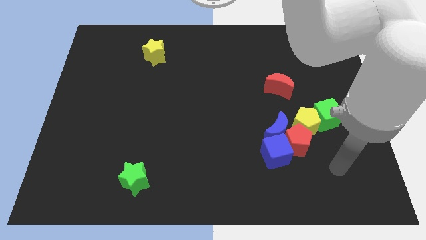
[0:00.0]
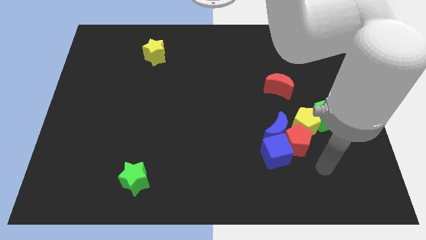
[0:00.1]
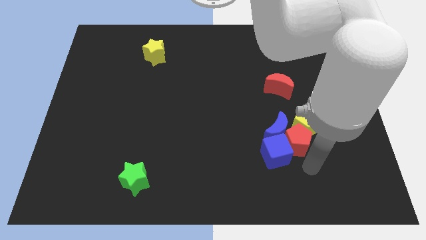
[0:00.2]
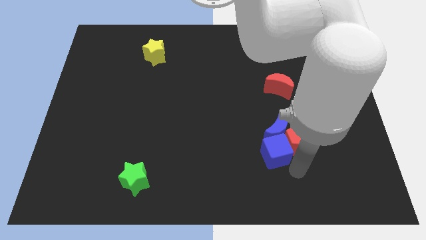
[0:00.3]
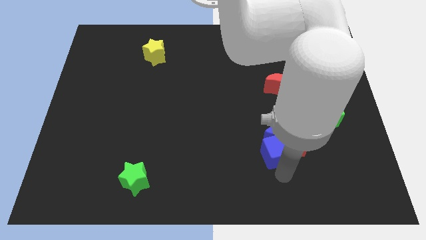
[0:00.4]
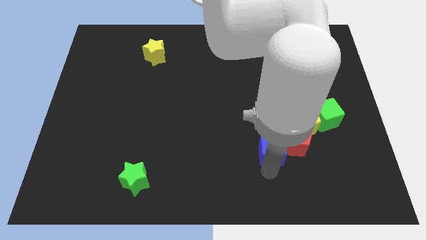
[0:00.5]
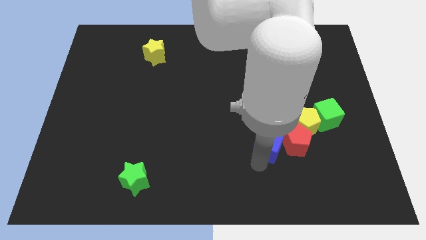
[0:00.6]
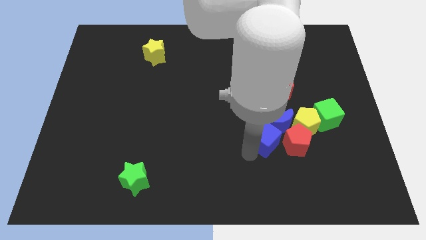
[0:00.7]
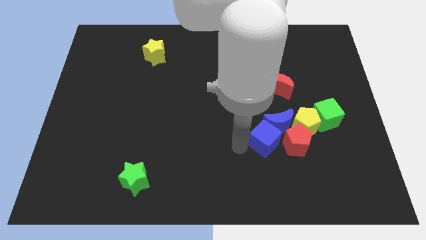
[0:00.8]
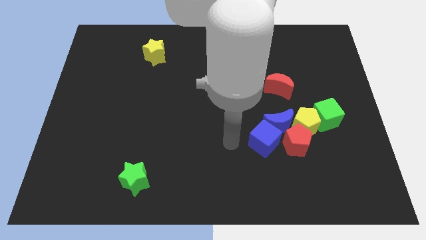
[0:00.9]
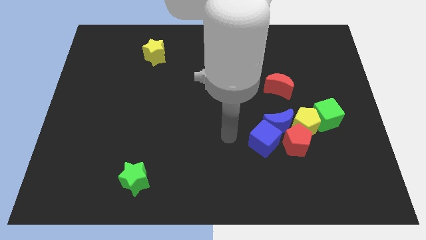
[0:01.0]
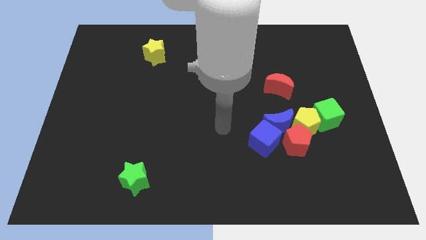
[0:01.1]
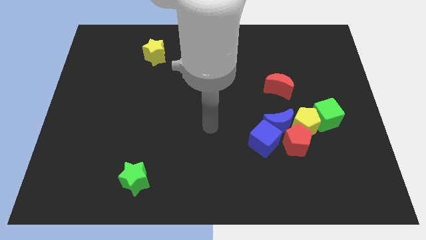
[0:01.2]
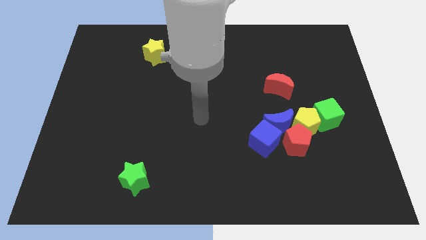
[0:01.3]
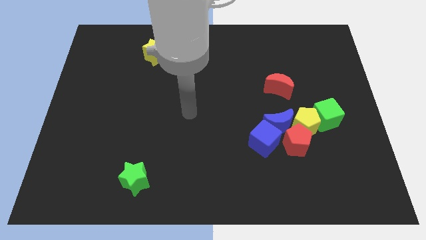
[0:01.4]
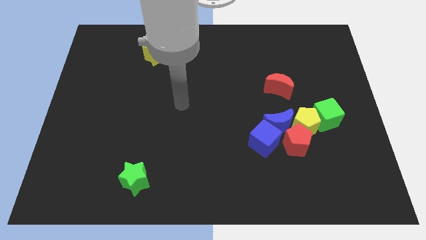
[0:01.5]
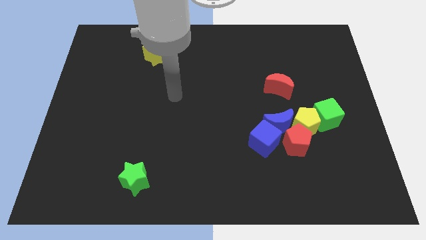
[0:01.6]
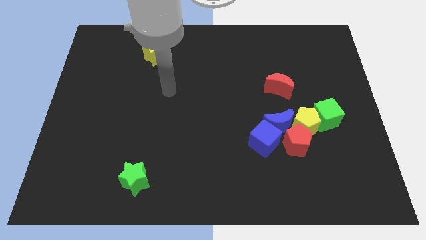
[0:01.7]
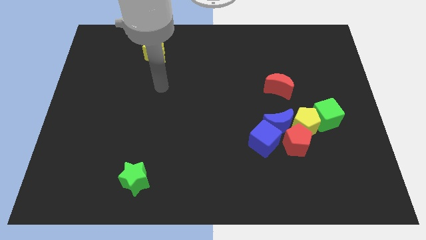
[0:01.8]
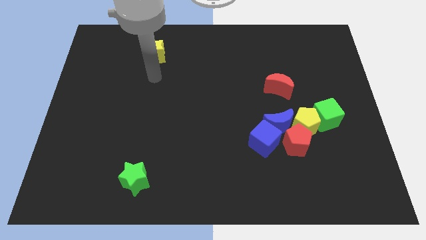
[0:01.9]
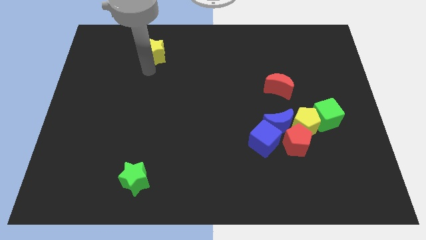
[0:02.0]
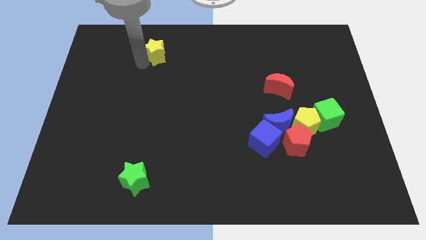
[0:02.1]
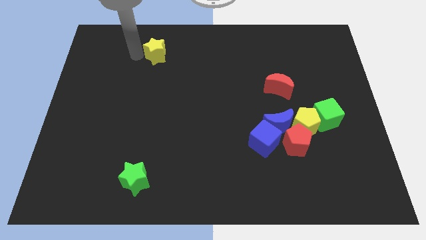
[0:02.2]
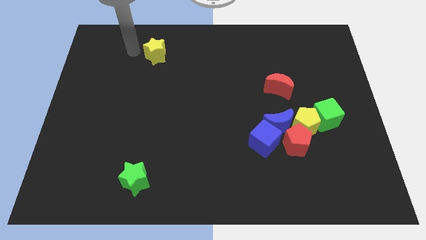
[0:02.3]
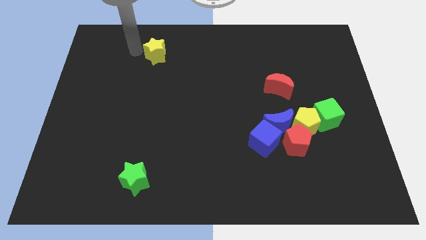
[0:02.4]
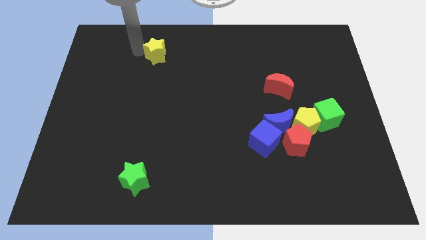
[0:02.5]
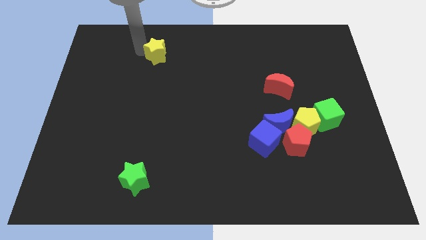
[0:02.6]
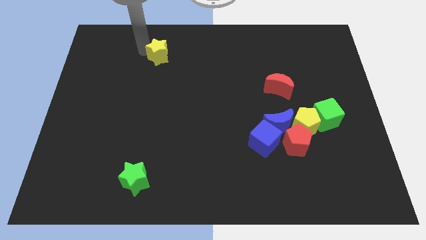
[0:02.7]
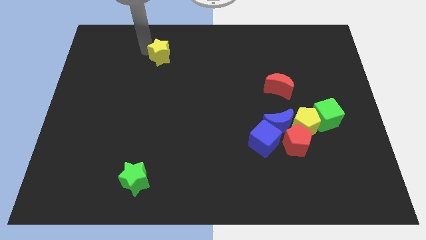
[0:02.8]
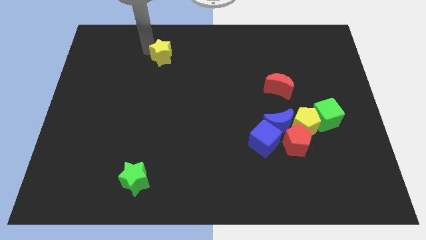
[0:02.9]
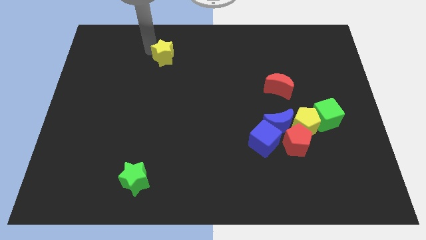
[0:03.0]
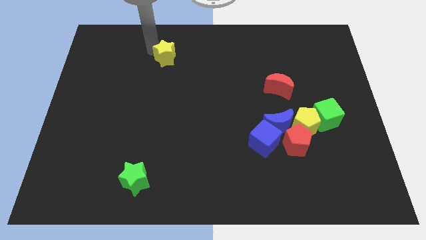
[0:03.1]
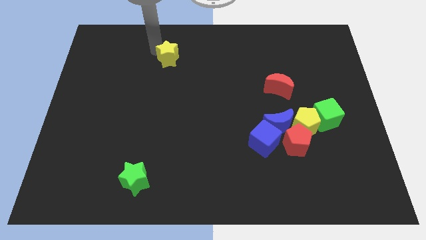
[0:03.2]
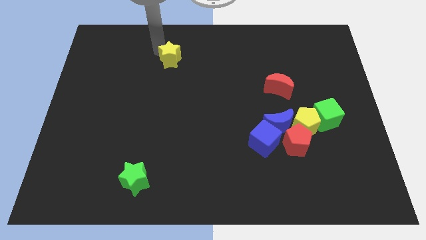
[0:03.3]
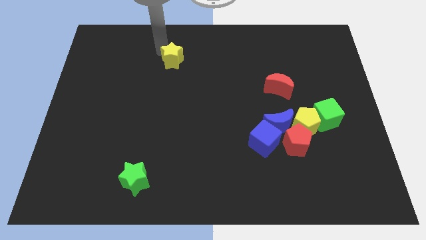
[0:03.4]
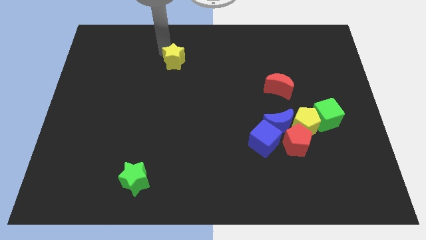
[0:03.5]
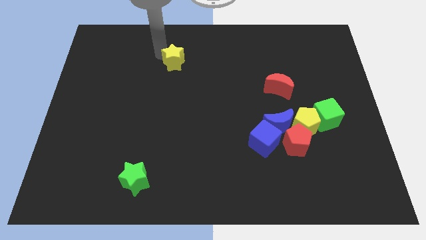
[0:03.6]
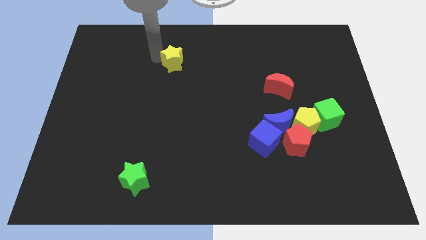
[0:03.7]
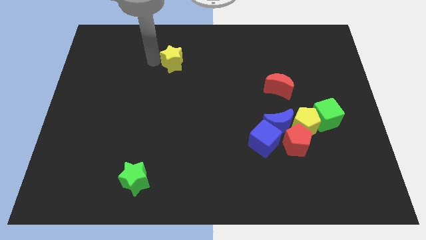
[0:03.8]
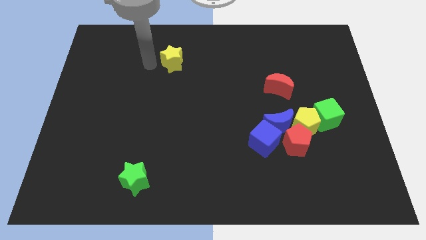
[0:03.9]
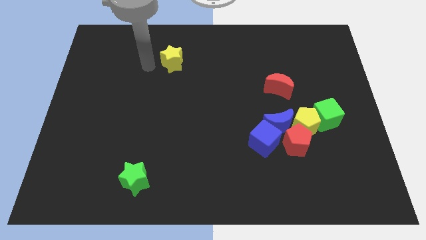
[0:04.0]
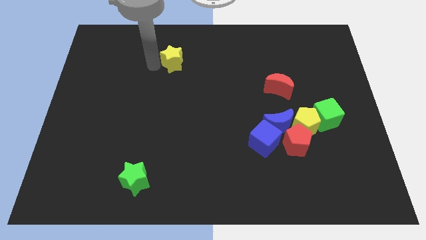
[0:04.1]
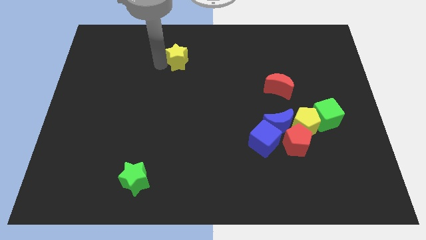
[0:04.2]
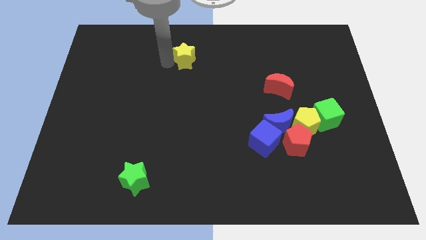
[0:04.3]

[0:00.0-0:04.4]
push the yellow star to the right somewhat

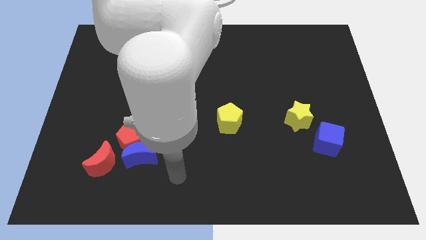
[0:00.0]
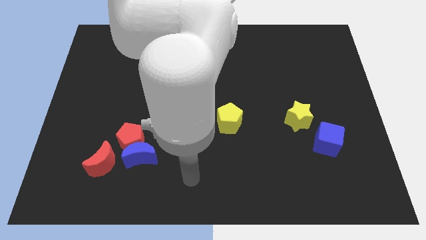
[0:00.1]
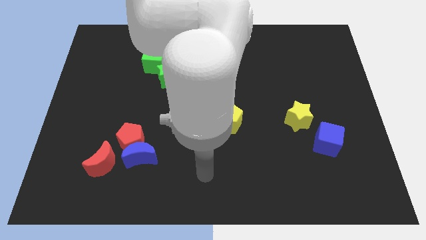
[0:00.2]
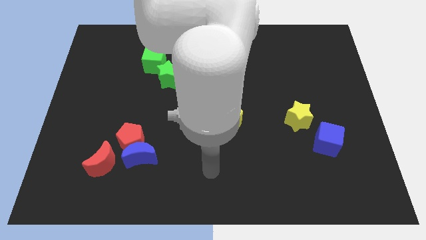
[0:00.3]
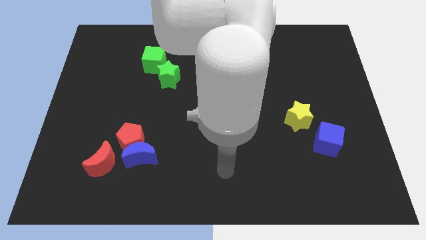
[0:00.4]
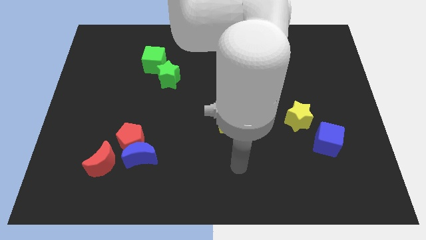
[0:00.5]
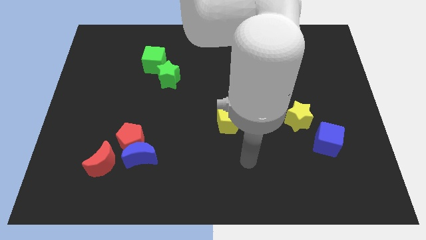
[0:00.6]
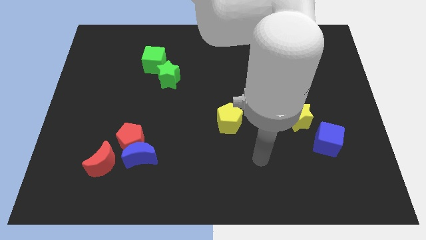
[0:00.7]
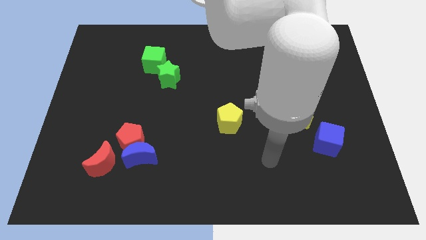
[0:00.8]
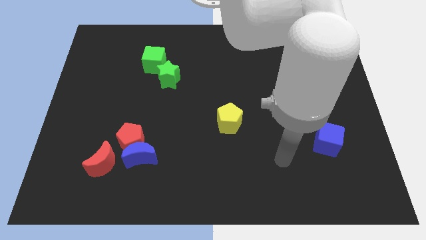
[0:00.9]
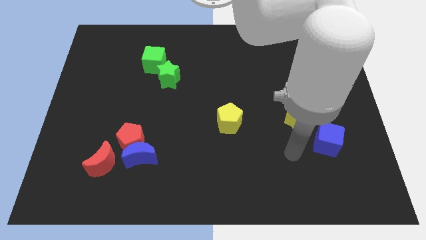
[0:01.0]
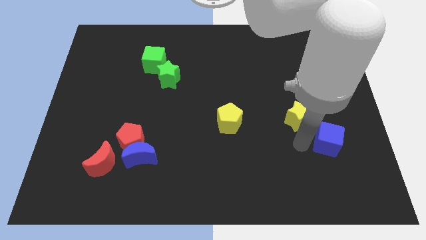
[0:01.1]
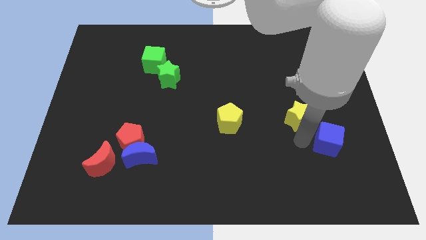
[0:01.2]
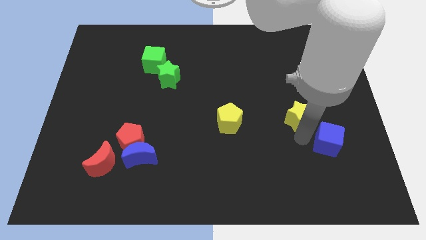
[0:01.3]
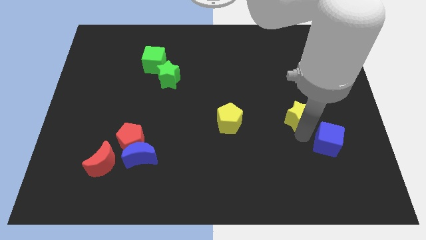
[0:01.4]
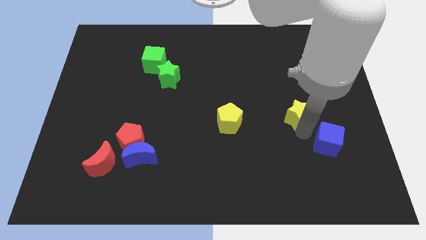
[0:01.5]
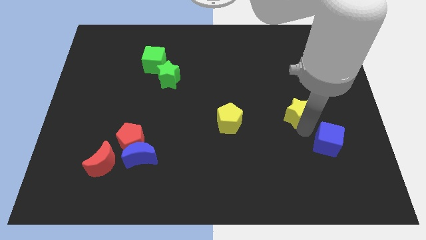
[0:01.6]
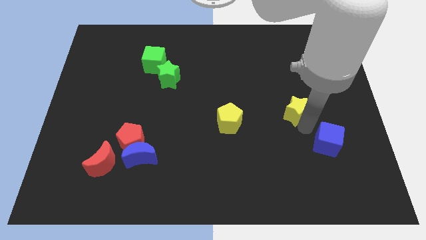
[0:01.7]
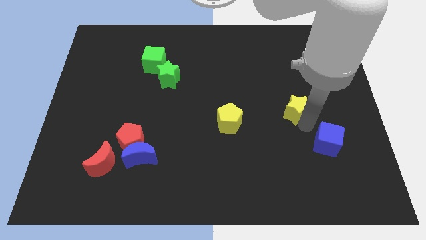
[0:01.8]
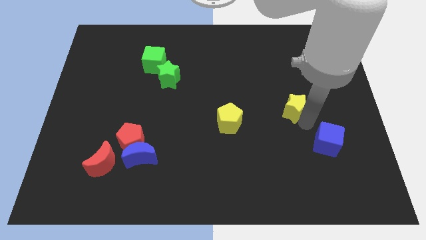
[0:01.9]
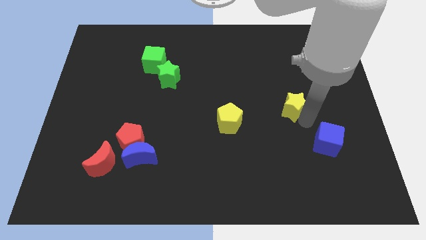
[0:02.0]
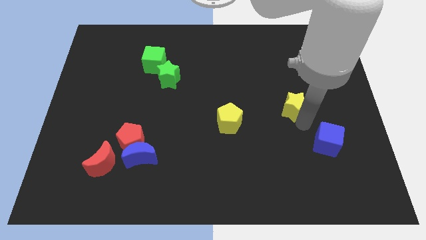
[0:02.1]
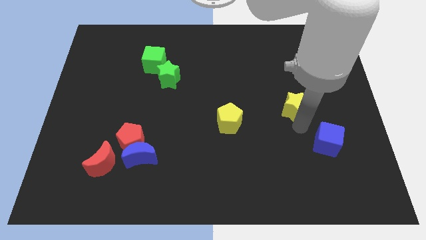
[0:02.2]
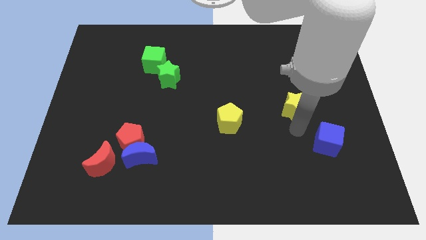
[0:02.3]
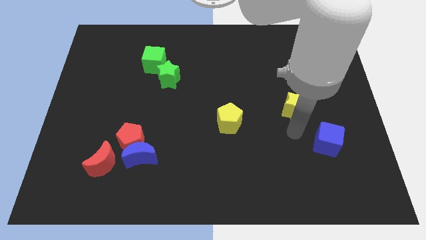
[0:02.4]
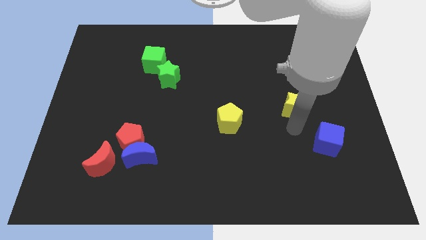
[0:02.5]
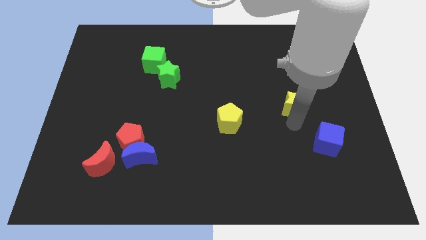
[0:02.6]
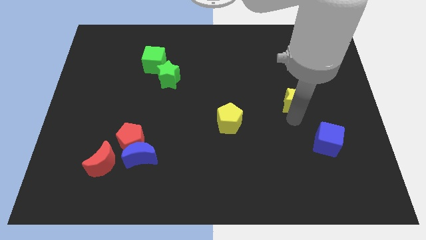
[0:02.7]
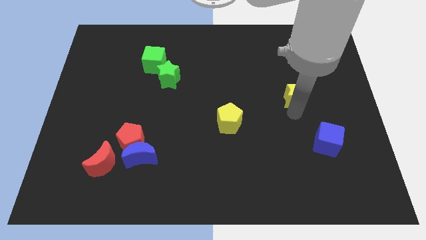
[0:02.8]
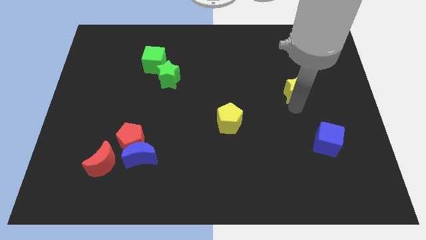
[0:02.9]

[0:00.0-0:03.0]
move the yellow star upwards a little bit

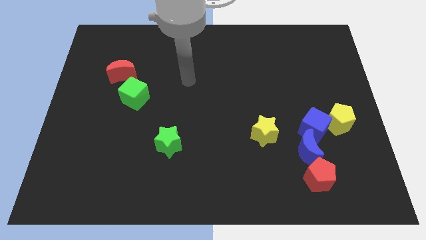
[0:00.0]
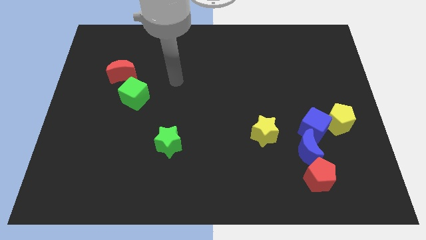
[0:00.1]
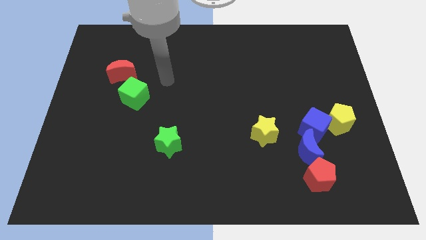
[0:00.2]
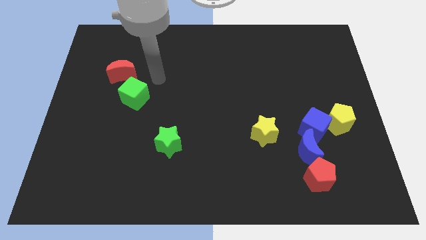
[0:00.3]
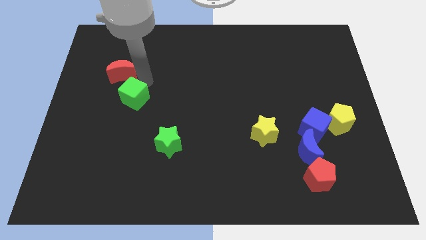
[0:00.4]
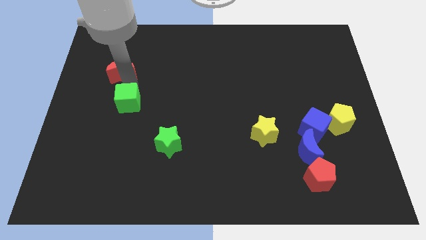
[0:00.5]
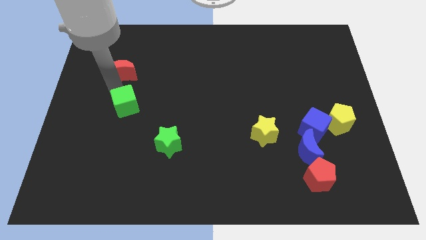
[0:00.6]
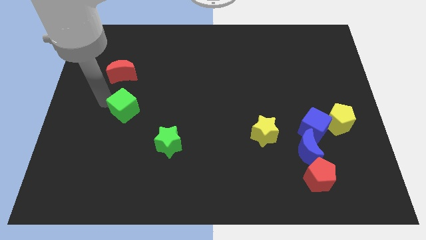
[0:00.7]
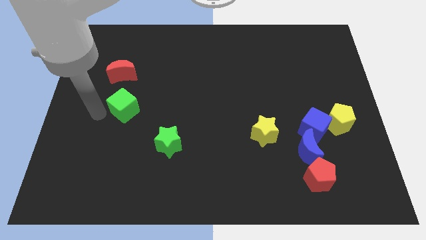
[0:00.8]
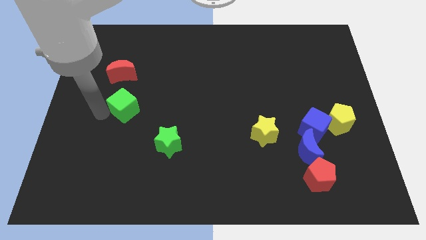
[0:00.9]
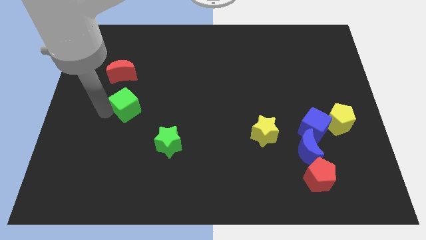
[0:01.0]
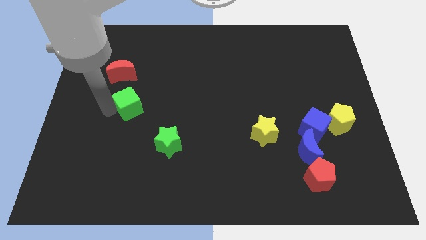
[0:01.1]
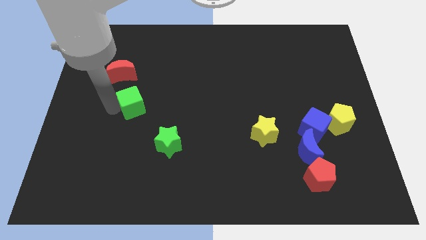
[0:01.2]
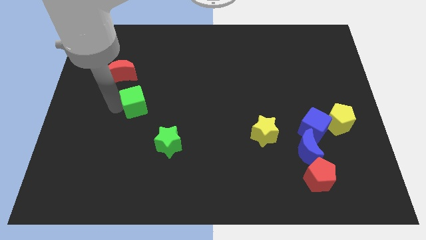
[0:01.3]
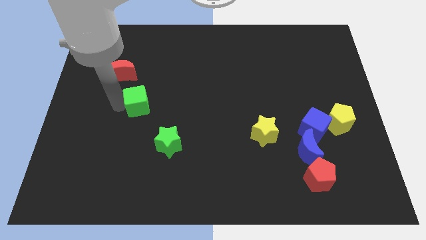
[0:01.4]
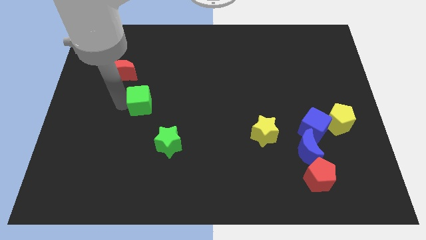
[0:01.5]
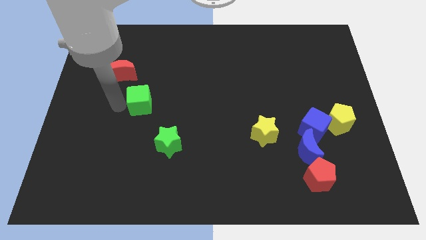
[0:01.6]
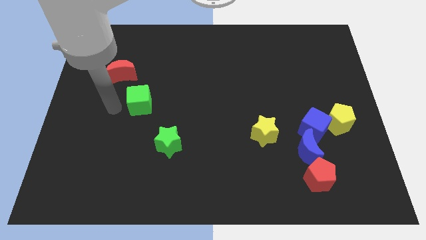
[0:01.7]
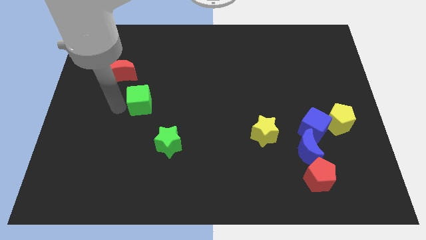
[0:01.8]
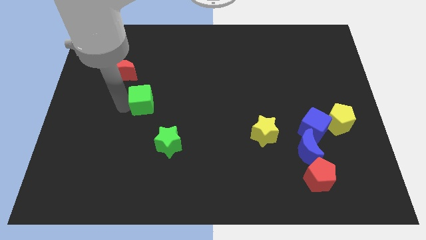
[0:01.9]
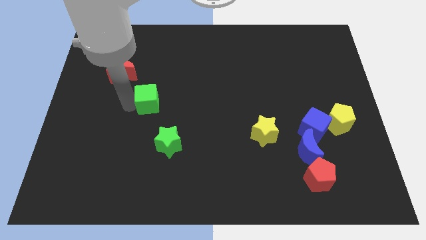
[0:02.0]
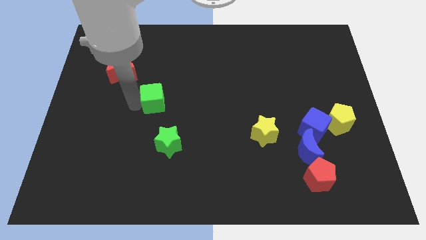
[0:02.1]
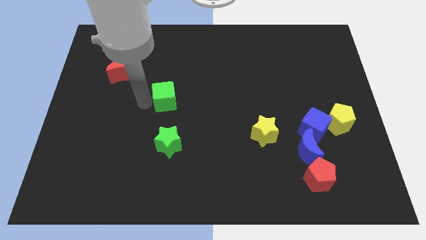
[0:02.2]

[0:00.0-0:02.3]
move the green cube a bit right
